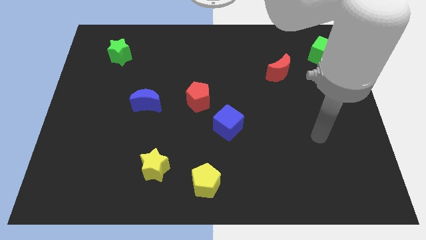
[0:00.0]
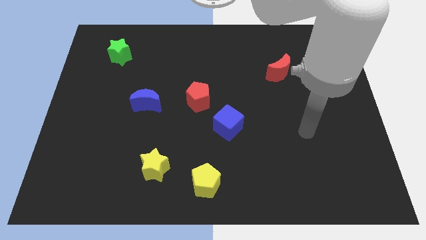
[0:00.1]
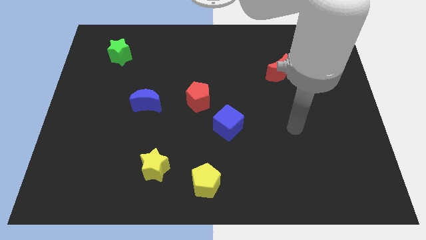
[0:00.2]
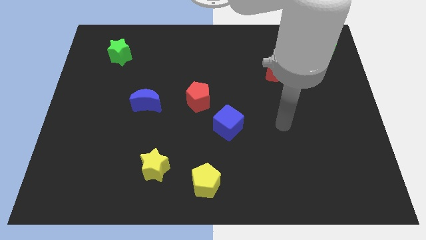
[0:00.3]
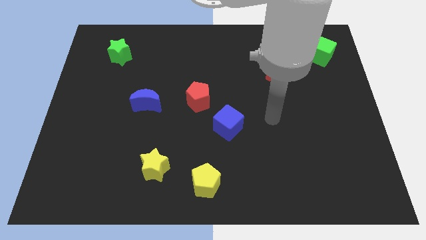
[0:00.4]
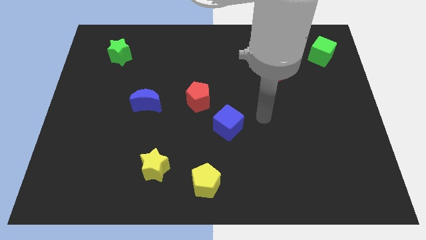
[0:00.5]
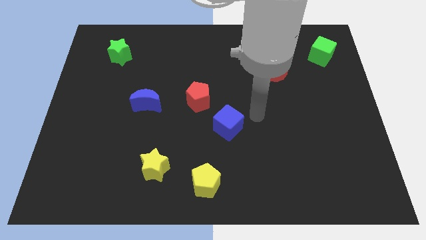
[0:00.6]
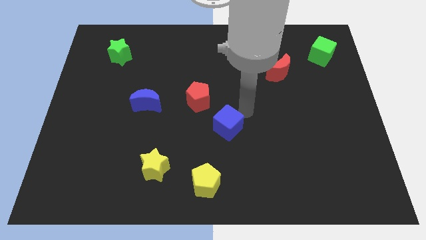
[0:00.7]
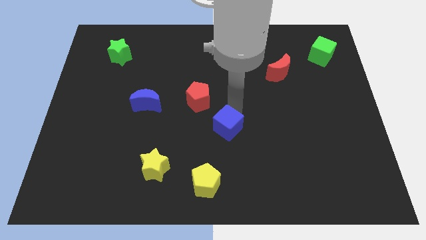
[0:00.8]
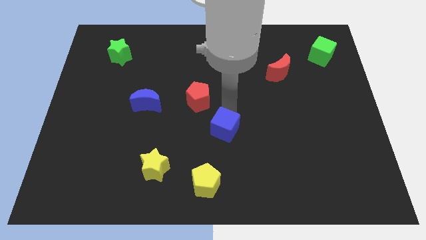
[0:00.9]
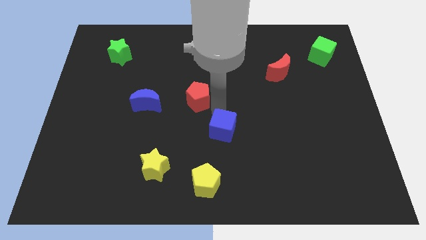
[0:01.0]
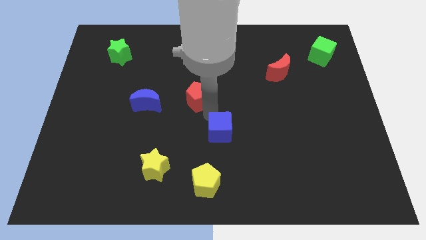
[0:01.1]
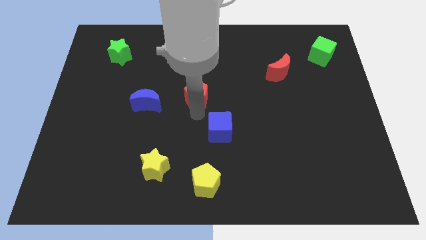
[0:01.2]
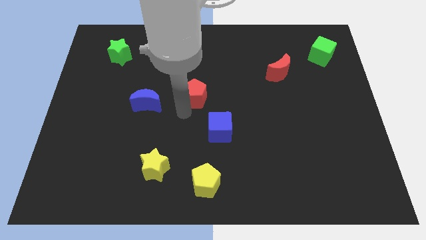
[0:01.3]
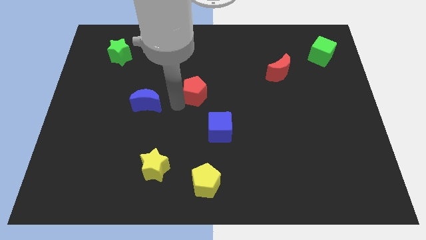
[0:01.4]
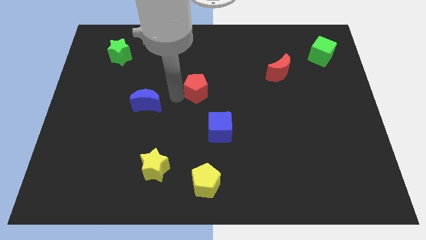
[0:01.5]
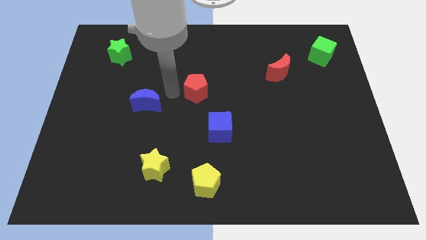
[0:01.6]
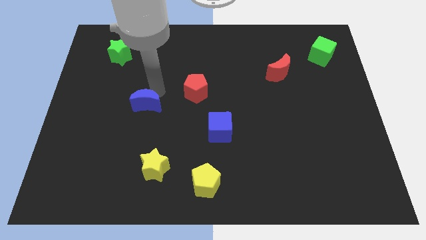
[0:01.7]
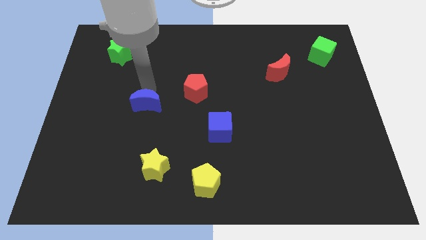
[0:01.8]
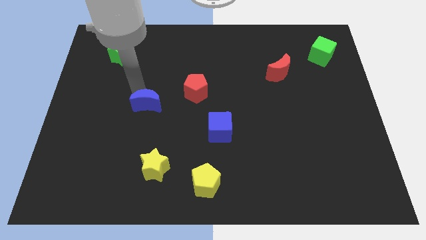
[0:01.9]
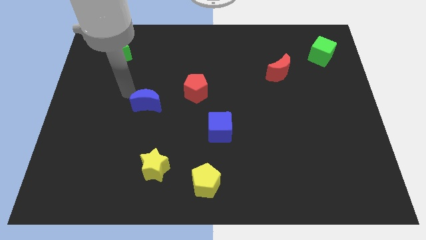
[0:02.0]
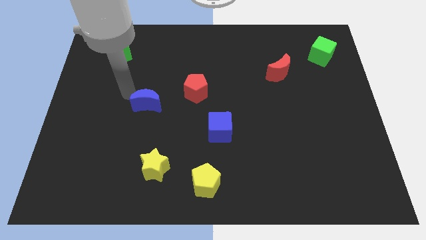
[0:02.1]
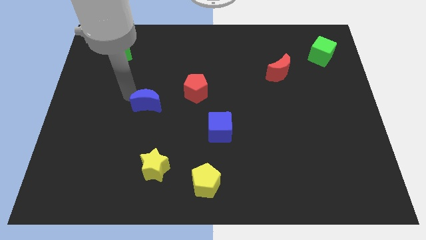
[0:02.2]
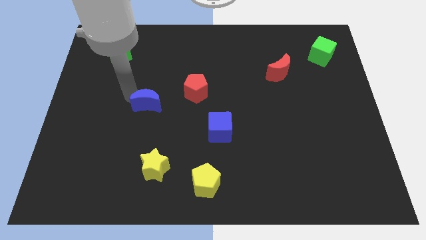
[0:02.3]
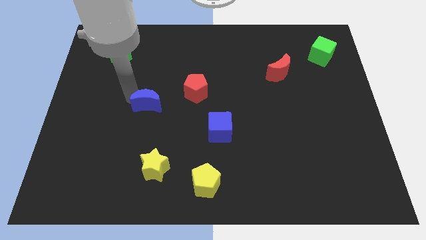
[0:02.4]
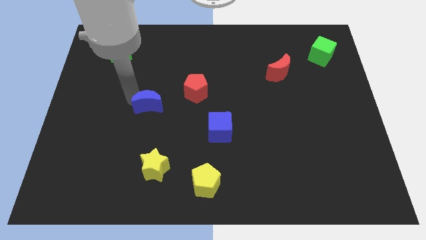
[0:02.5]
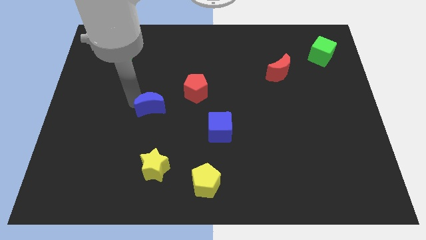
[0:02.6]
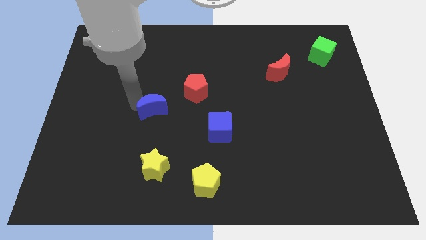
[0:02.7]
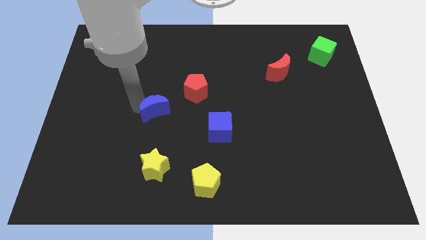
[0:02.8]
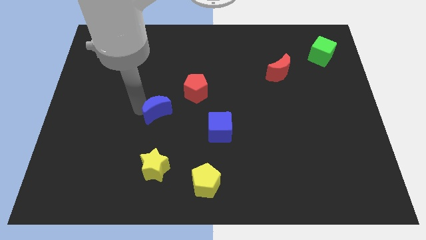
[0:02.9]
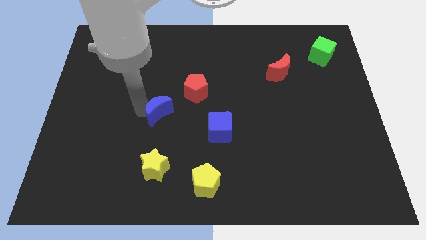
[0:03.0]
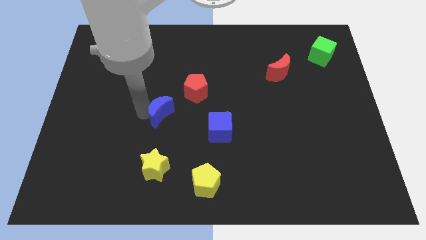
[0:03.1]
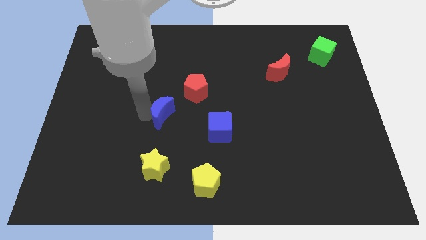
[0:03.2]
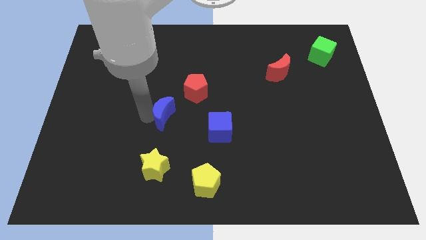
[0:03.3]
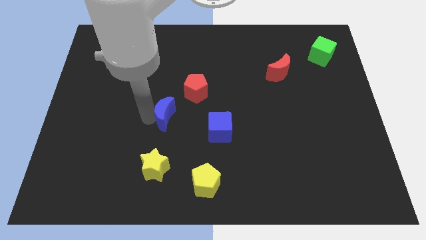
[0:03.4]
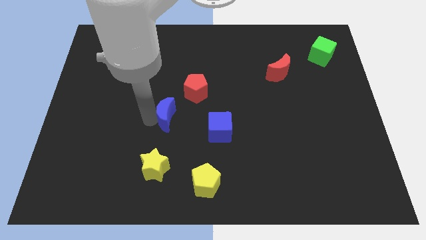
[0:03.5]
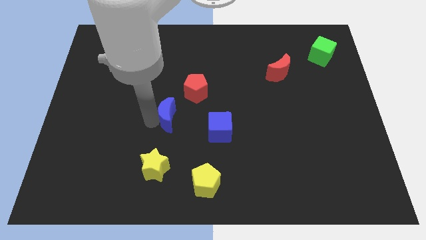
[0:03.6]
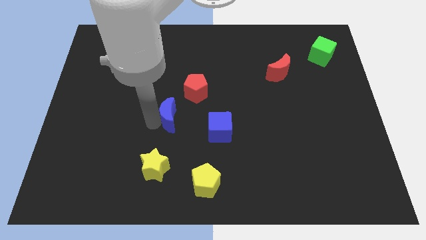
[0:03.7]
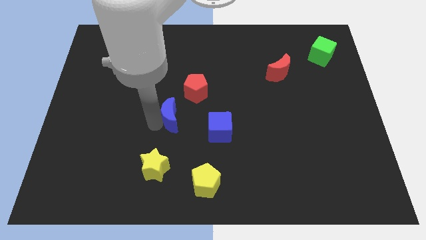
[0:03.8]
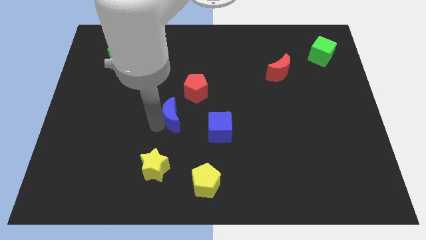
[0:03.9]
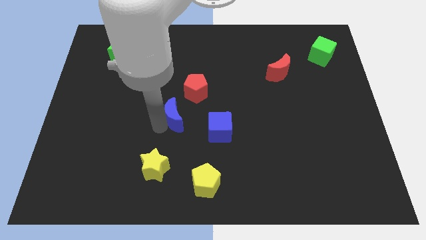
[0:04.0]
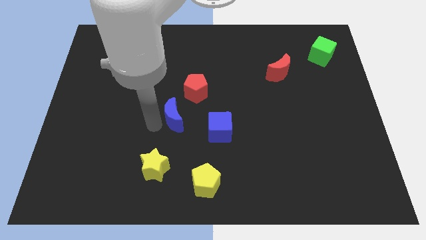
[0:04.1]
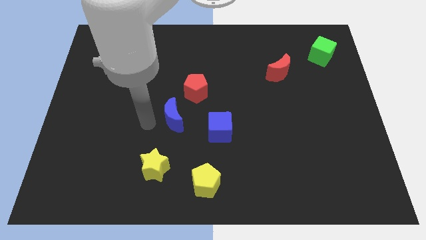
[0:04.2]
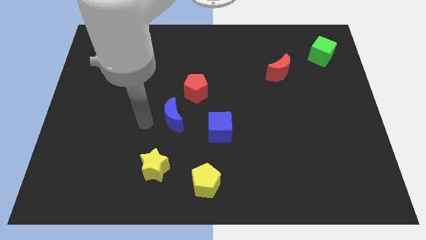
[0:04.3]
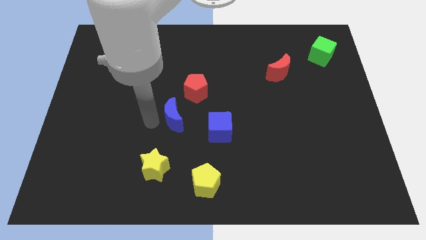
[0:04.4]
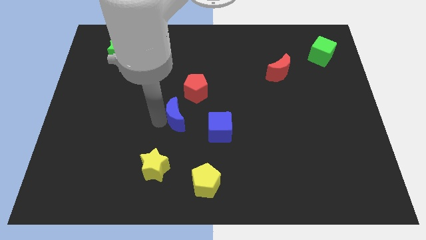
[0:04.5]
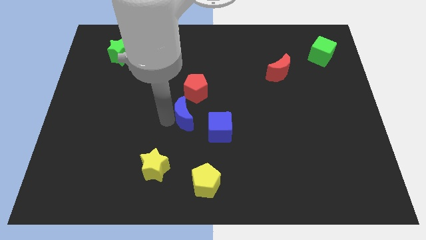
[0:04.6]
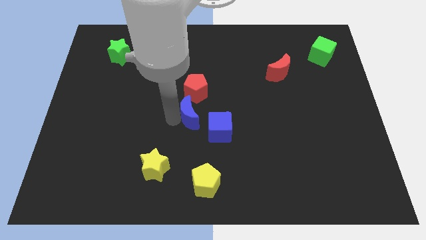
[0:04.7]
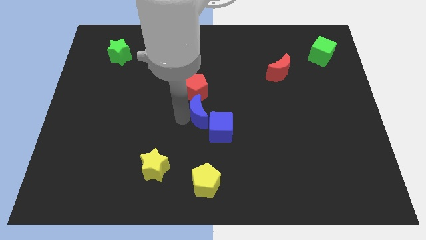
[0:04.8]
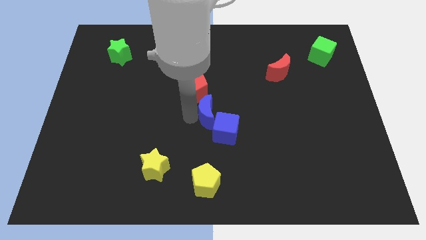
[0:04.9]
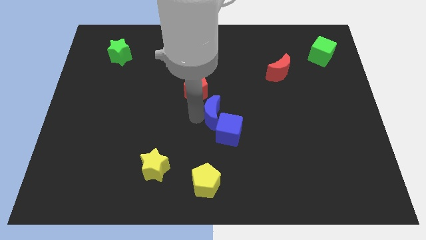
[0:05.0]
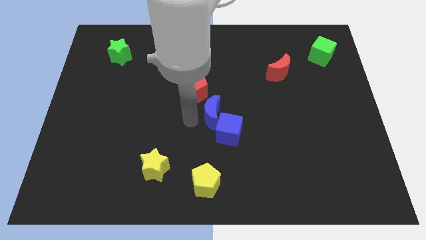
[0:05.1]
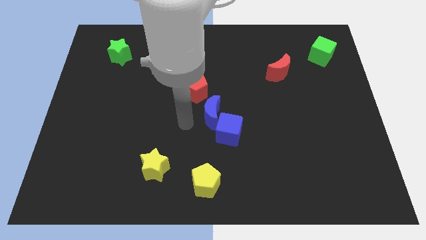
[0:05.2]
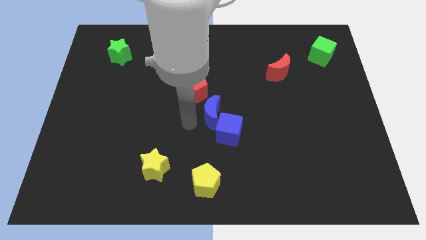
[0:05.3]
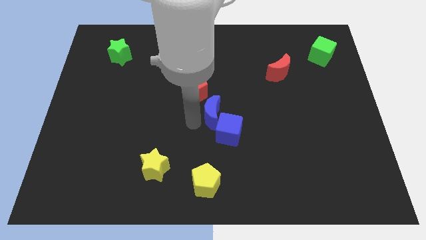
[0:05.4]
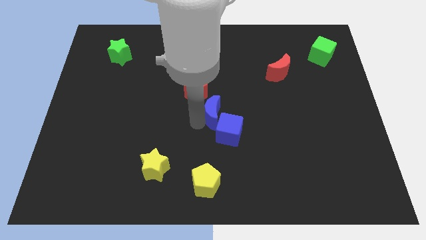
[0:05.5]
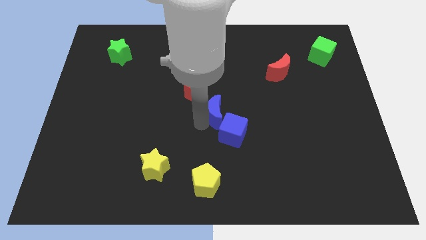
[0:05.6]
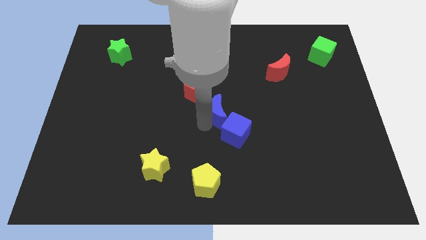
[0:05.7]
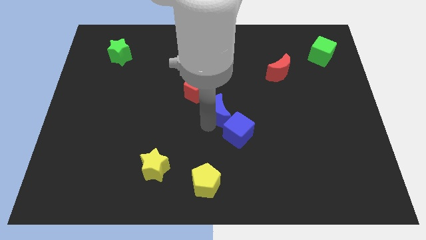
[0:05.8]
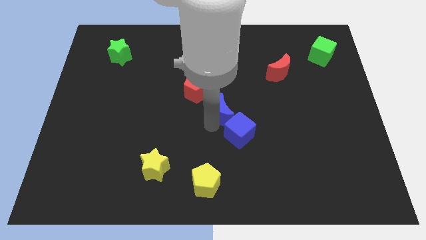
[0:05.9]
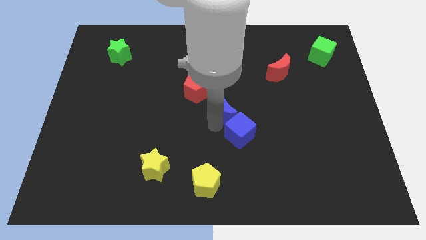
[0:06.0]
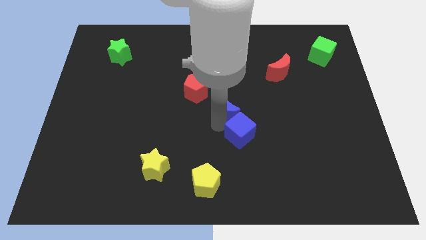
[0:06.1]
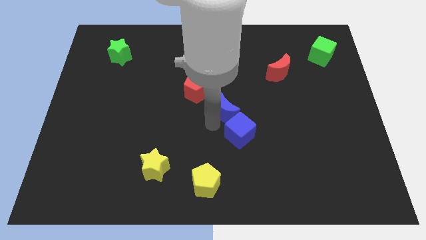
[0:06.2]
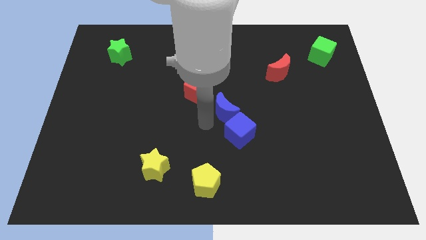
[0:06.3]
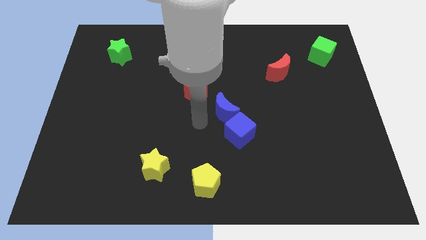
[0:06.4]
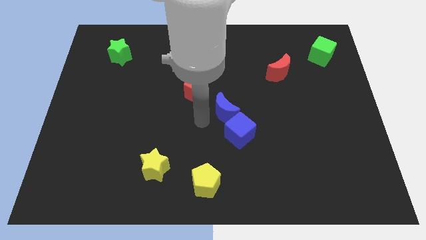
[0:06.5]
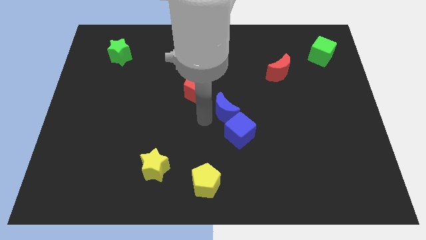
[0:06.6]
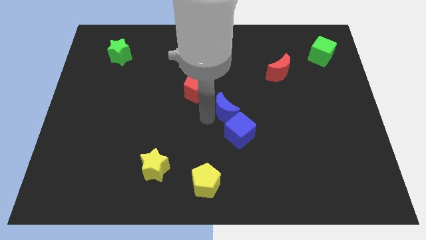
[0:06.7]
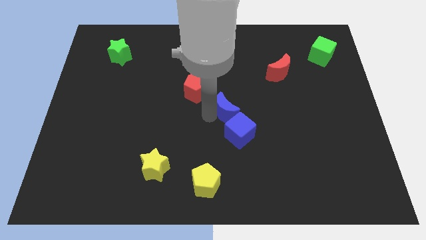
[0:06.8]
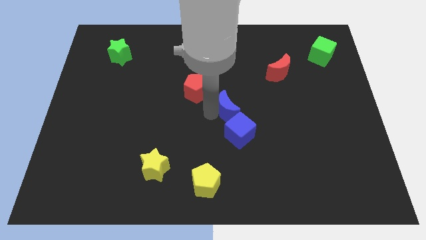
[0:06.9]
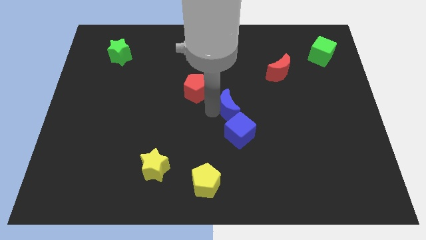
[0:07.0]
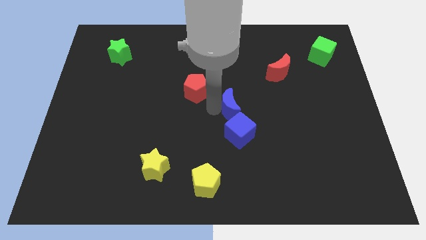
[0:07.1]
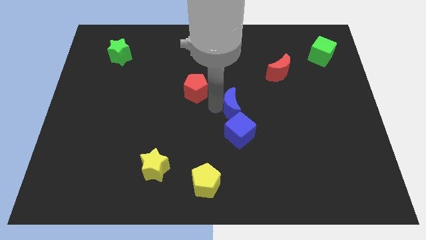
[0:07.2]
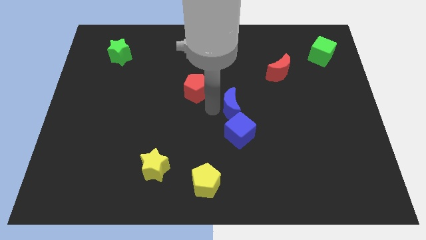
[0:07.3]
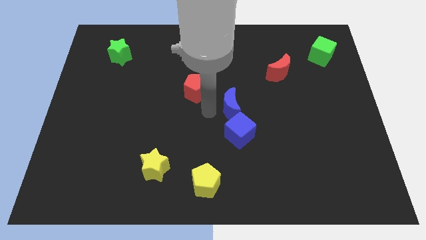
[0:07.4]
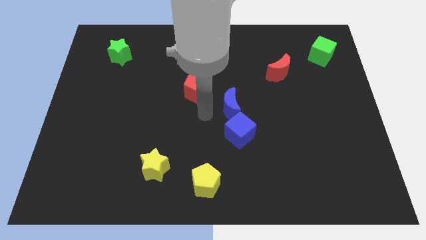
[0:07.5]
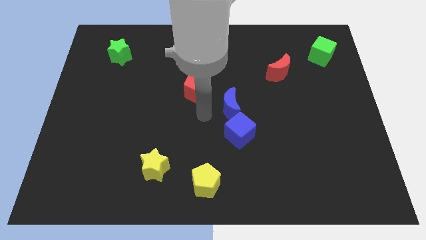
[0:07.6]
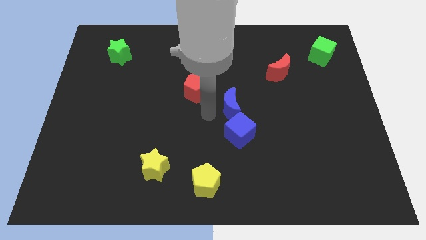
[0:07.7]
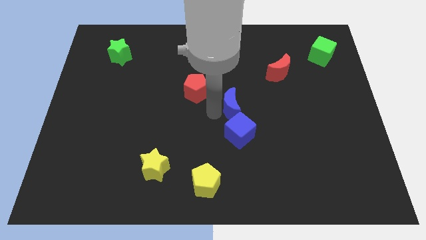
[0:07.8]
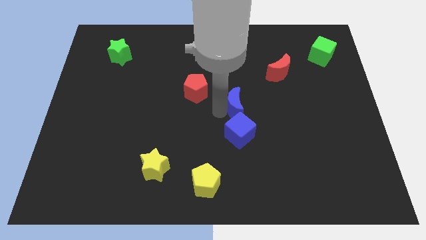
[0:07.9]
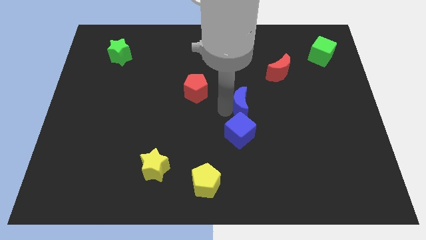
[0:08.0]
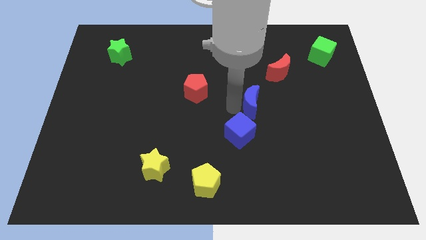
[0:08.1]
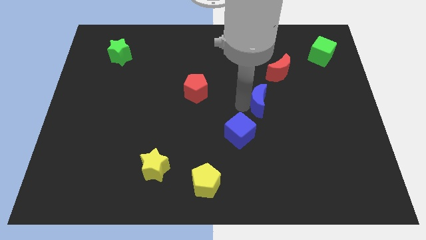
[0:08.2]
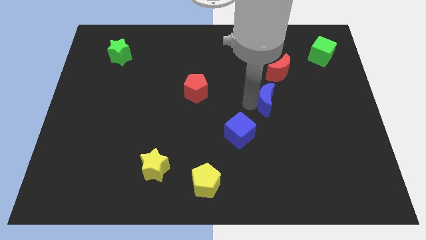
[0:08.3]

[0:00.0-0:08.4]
put the blue moon to the bottom side of the red moon
